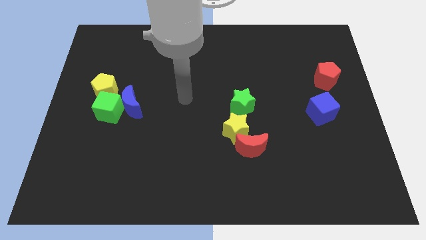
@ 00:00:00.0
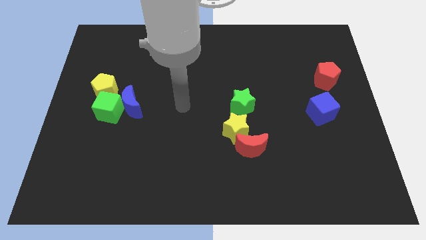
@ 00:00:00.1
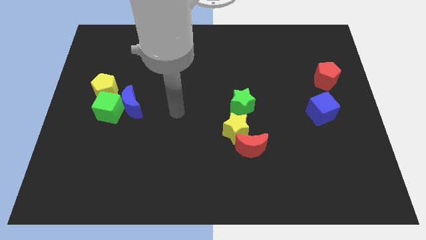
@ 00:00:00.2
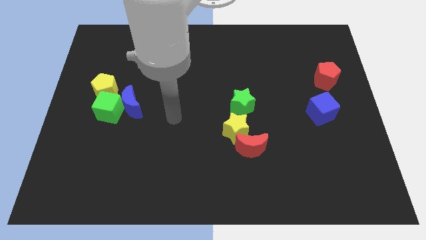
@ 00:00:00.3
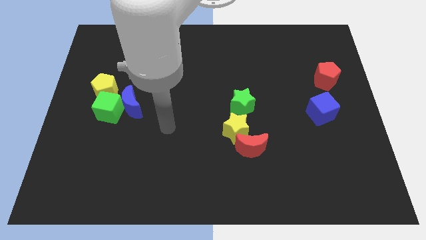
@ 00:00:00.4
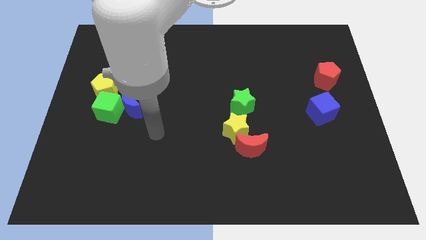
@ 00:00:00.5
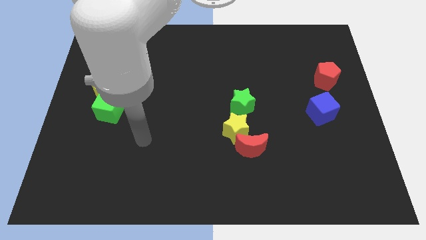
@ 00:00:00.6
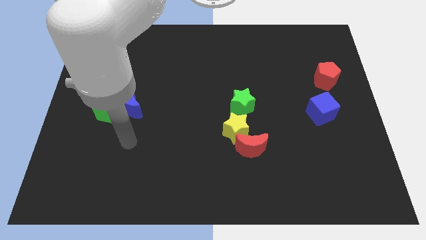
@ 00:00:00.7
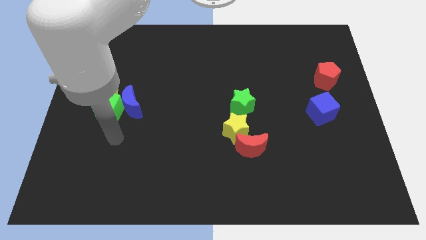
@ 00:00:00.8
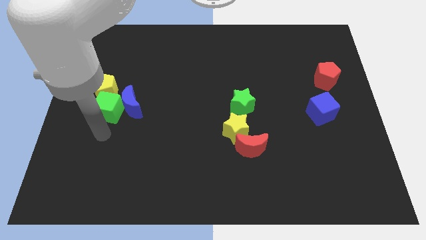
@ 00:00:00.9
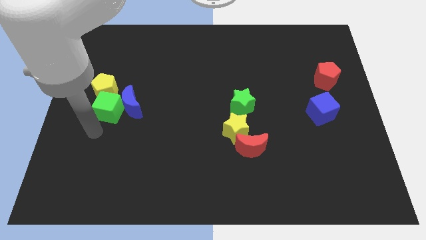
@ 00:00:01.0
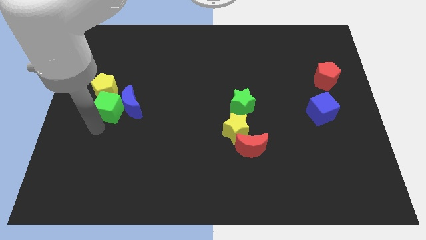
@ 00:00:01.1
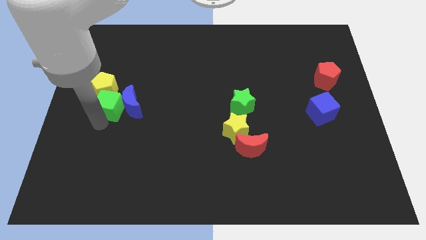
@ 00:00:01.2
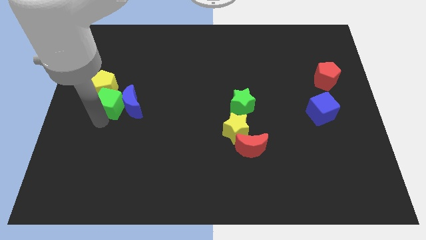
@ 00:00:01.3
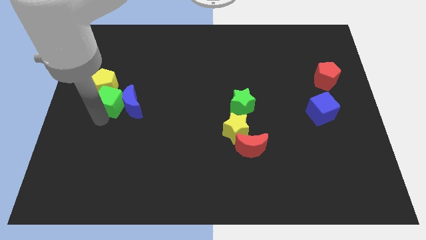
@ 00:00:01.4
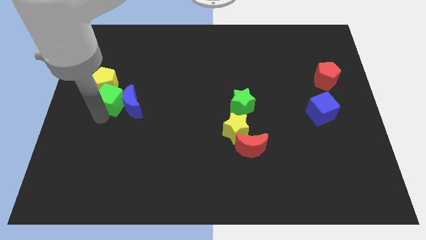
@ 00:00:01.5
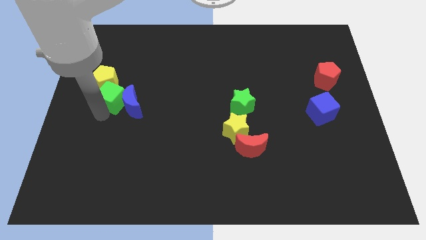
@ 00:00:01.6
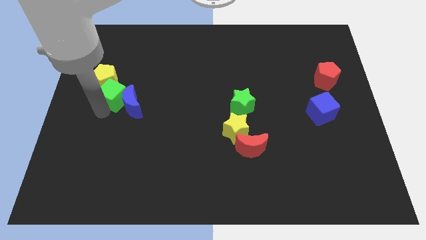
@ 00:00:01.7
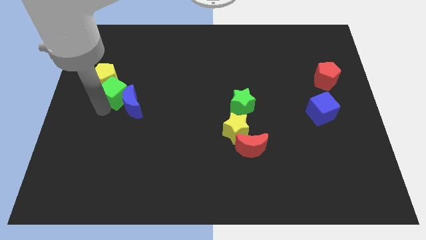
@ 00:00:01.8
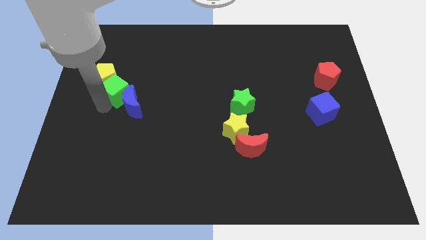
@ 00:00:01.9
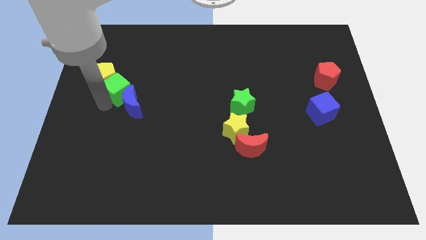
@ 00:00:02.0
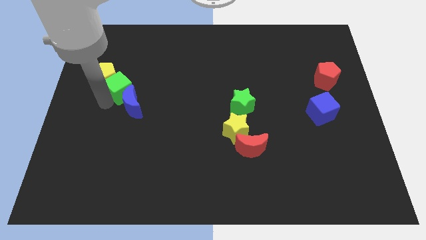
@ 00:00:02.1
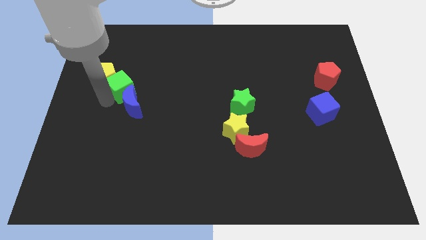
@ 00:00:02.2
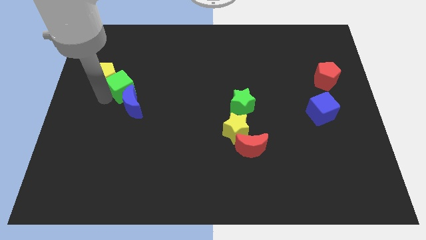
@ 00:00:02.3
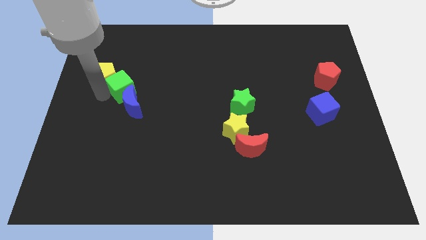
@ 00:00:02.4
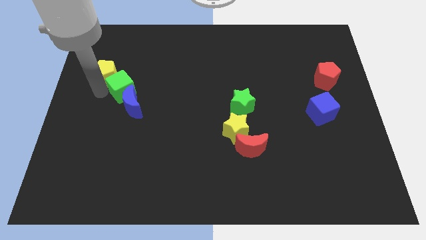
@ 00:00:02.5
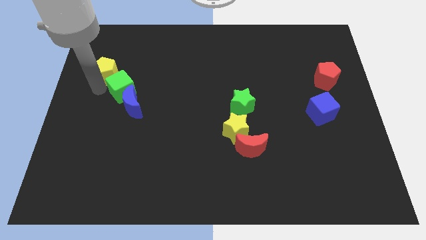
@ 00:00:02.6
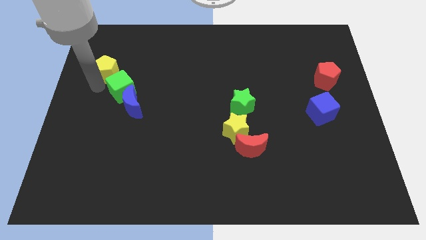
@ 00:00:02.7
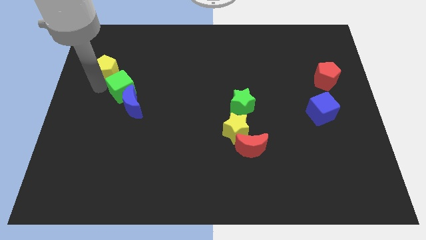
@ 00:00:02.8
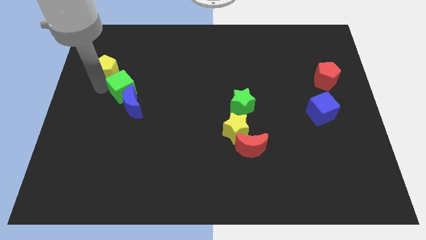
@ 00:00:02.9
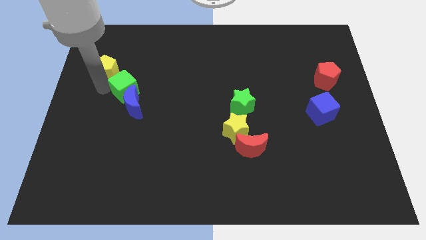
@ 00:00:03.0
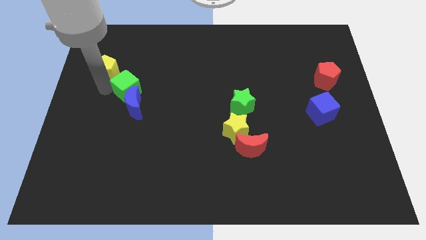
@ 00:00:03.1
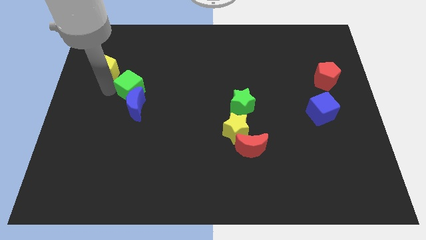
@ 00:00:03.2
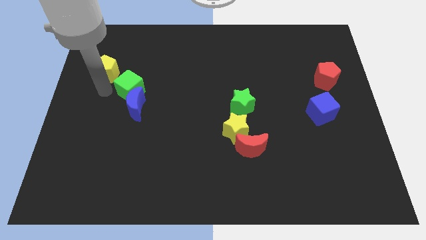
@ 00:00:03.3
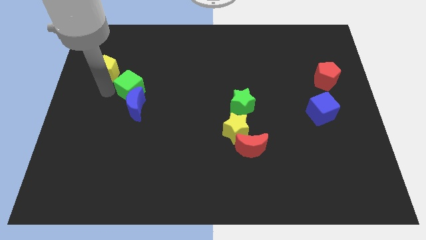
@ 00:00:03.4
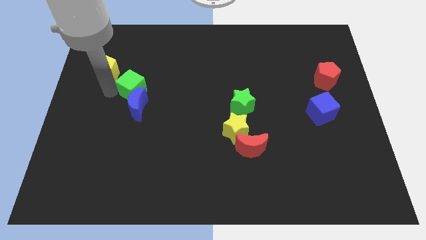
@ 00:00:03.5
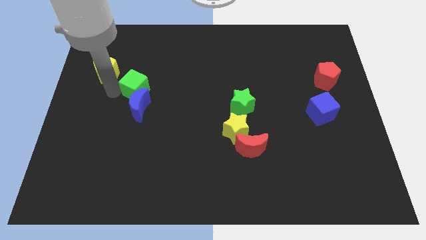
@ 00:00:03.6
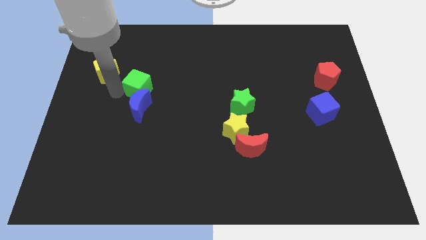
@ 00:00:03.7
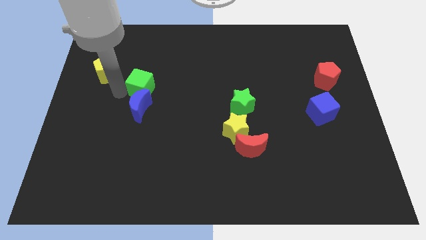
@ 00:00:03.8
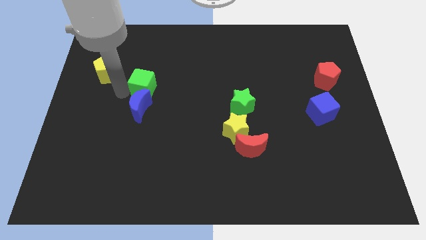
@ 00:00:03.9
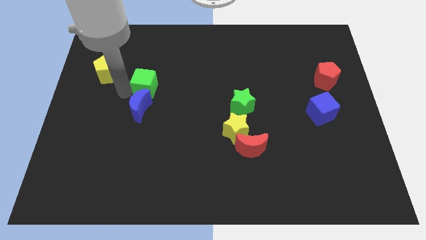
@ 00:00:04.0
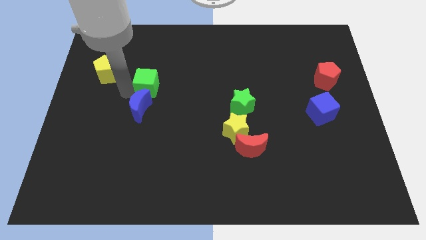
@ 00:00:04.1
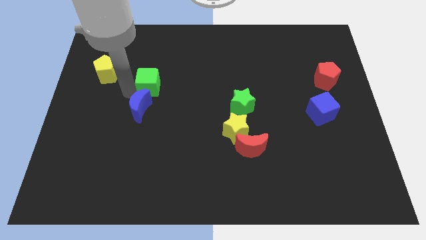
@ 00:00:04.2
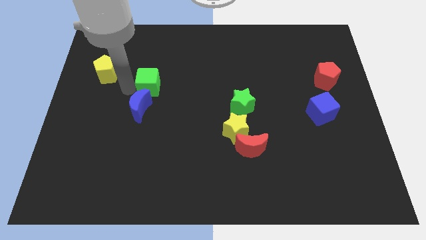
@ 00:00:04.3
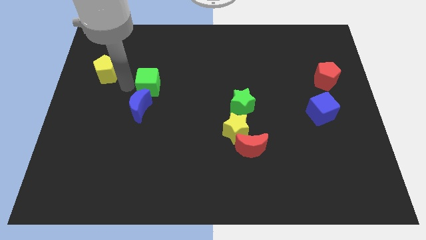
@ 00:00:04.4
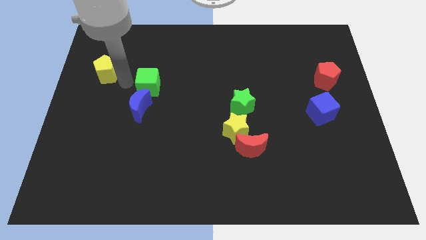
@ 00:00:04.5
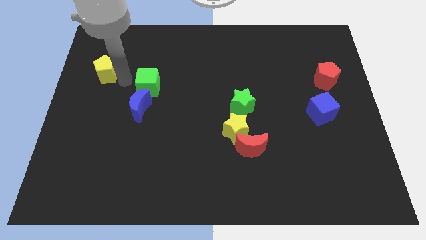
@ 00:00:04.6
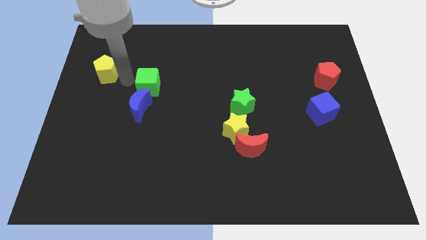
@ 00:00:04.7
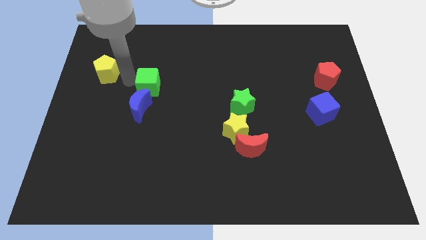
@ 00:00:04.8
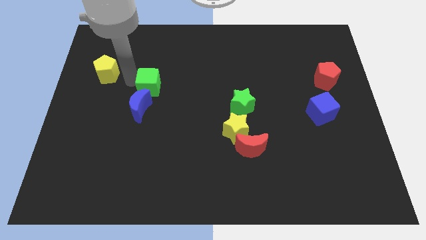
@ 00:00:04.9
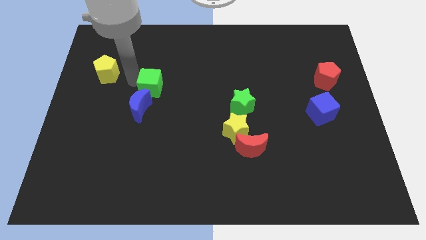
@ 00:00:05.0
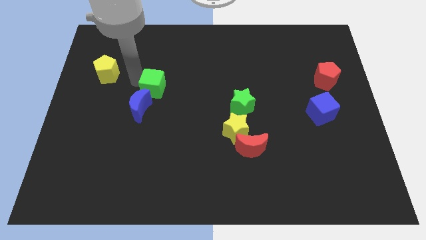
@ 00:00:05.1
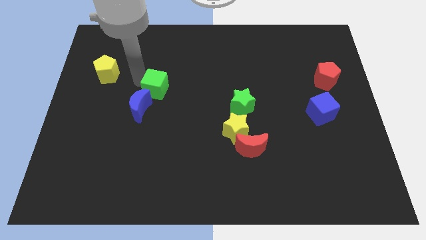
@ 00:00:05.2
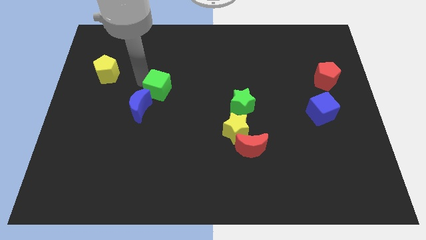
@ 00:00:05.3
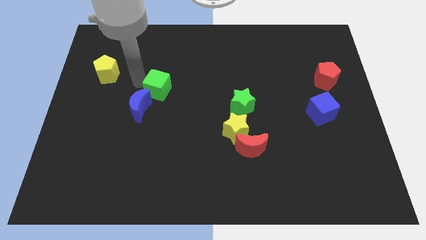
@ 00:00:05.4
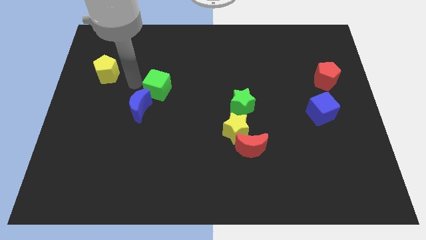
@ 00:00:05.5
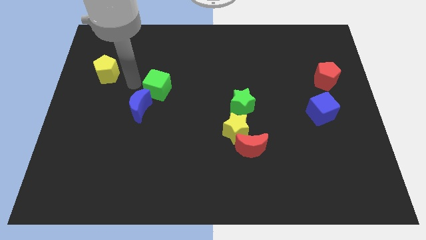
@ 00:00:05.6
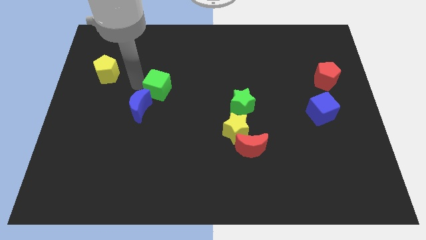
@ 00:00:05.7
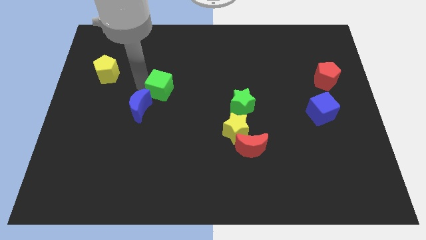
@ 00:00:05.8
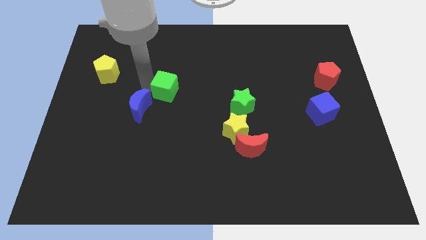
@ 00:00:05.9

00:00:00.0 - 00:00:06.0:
slide the green cube to the middle
